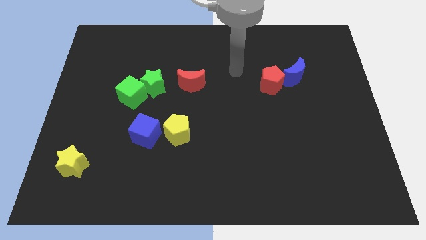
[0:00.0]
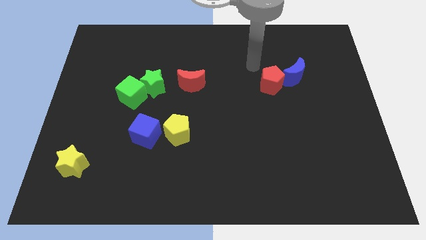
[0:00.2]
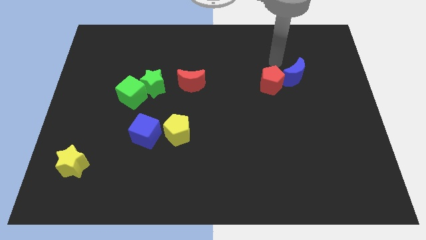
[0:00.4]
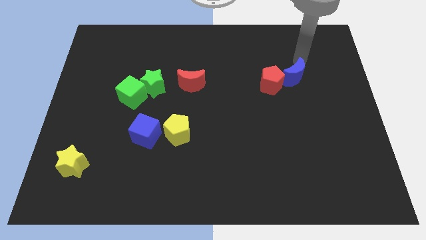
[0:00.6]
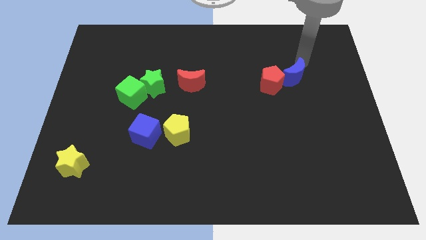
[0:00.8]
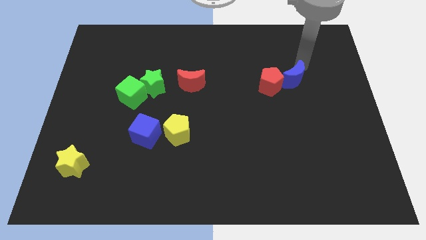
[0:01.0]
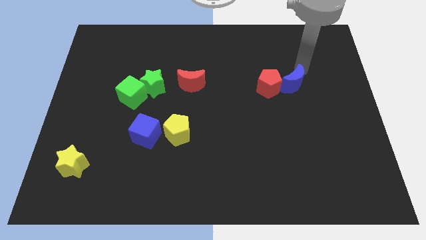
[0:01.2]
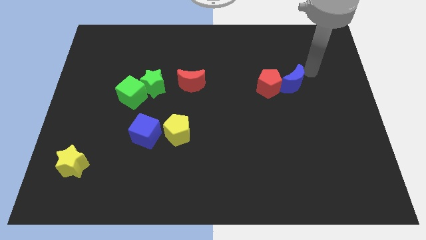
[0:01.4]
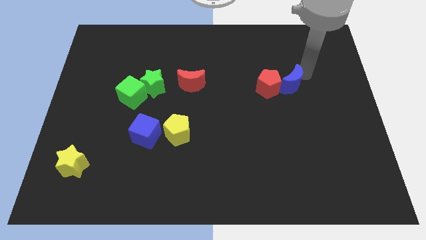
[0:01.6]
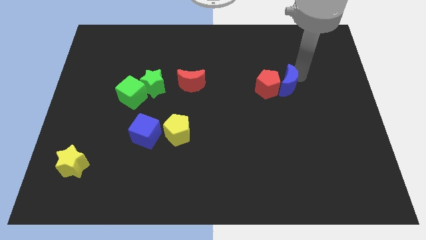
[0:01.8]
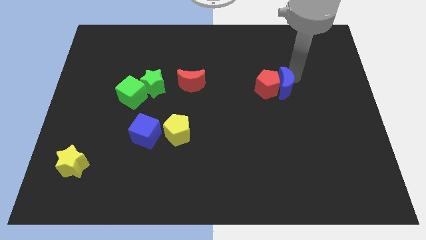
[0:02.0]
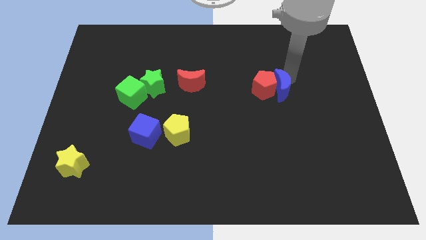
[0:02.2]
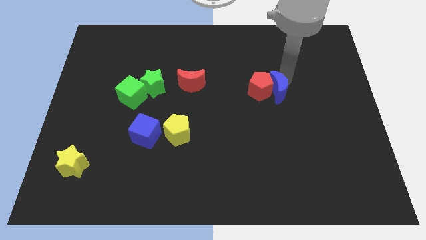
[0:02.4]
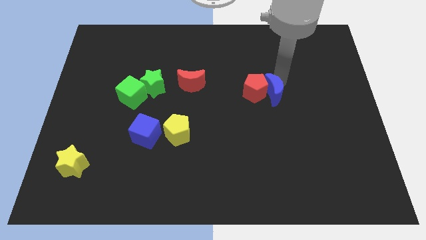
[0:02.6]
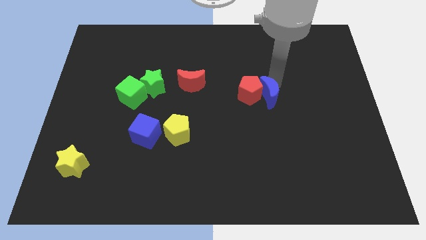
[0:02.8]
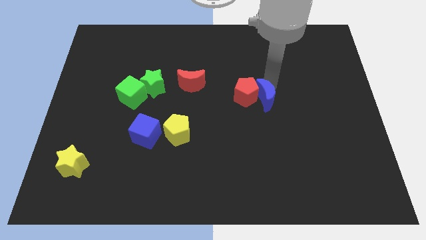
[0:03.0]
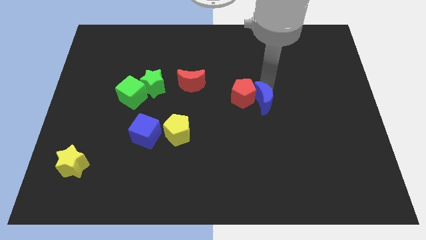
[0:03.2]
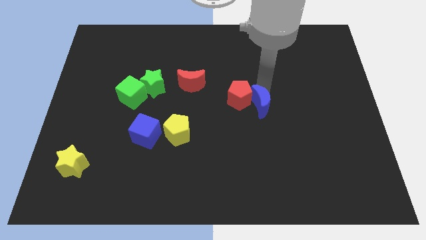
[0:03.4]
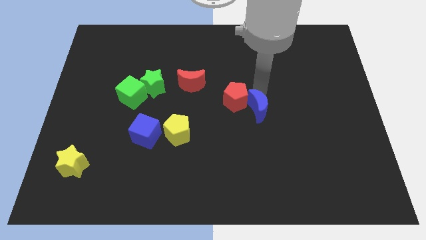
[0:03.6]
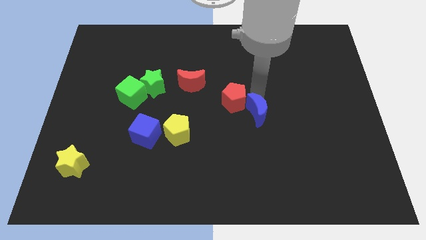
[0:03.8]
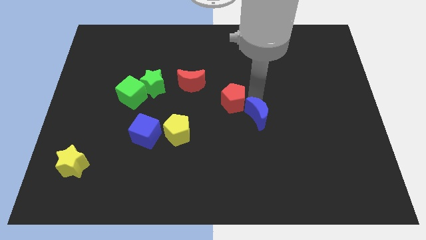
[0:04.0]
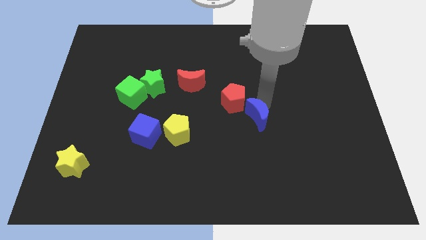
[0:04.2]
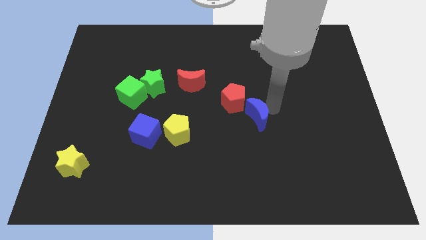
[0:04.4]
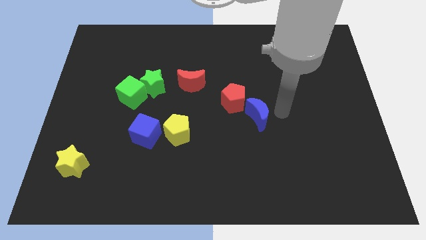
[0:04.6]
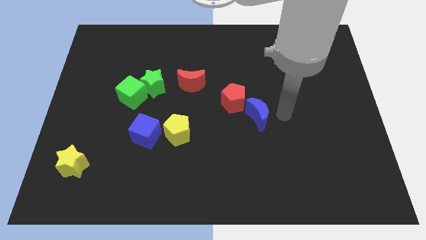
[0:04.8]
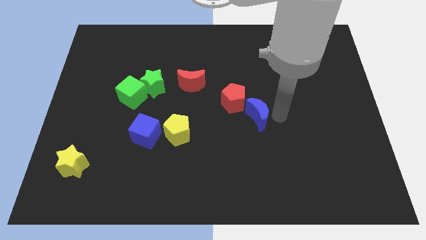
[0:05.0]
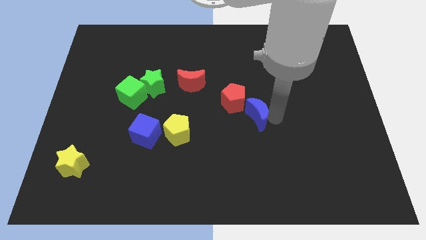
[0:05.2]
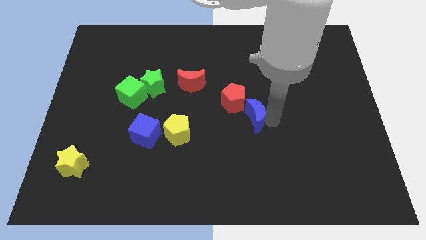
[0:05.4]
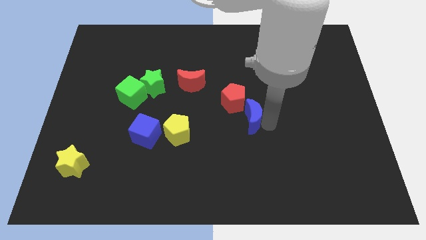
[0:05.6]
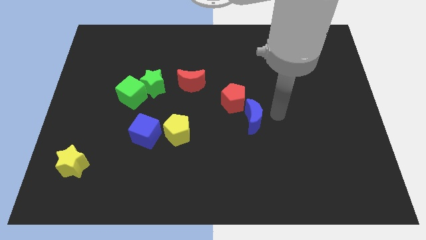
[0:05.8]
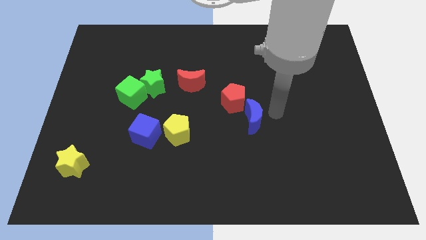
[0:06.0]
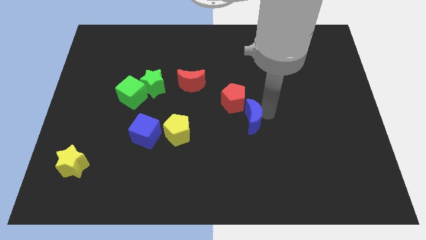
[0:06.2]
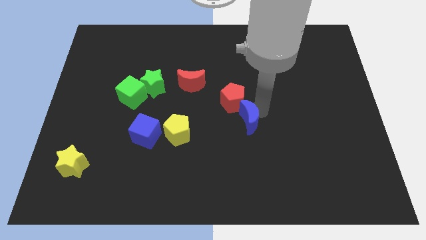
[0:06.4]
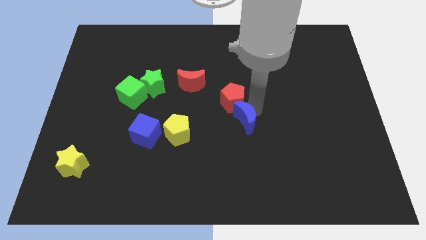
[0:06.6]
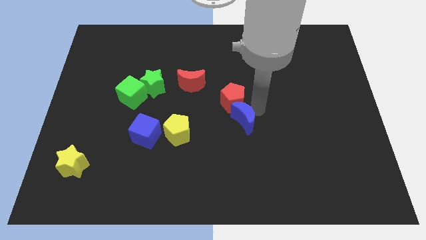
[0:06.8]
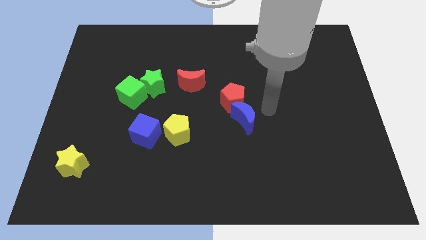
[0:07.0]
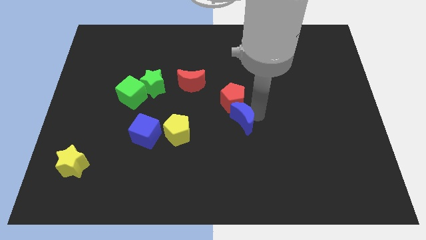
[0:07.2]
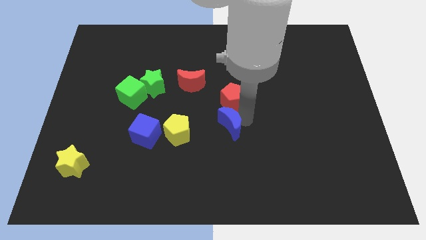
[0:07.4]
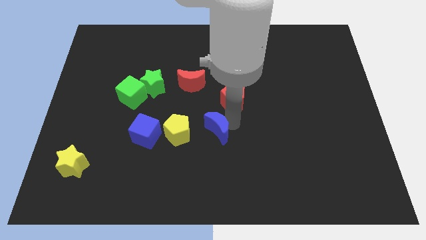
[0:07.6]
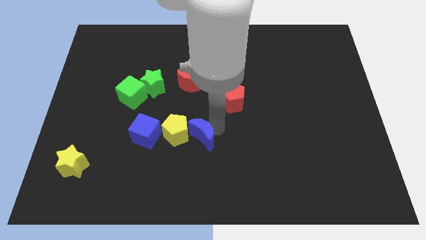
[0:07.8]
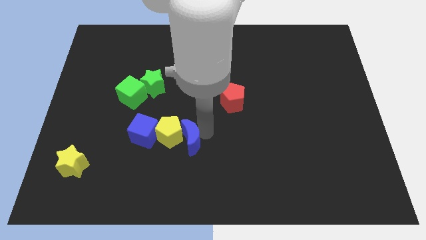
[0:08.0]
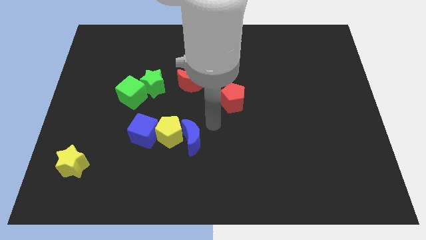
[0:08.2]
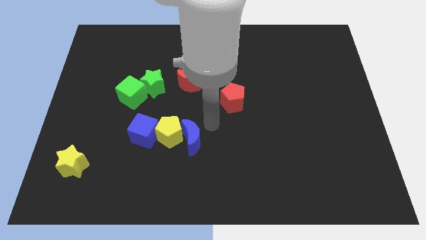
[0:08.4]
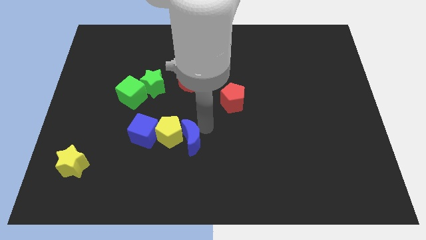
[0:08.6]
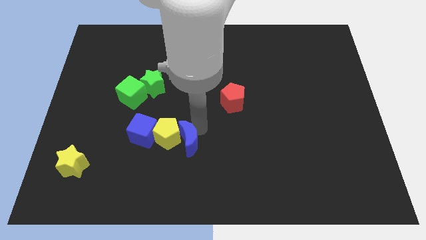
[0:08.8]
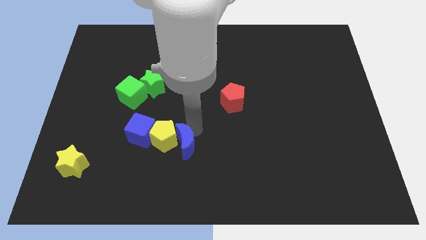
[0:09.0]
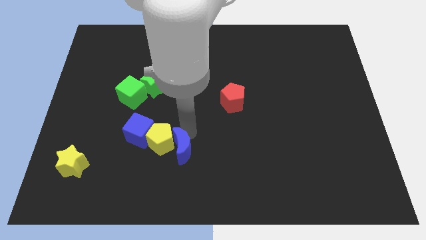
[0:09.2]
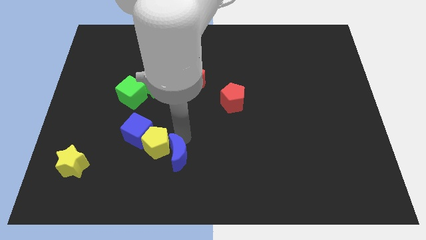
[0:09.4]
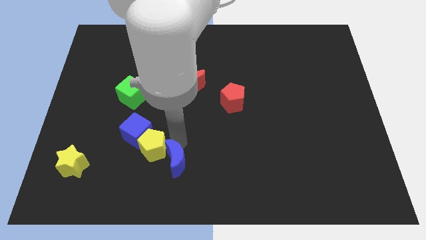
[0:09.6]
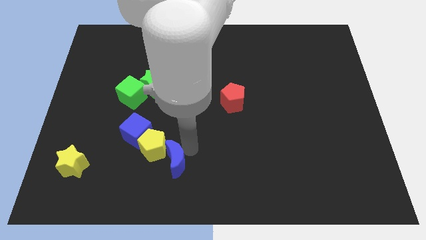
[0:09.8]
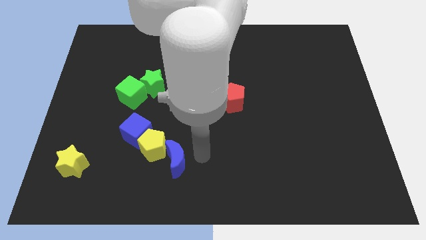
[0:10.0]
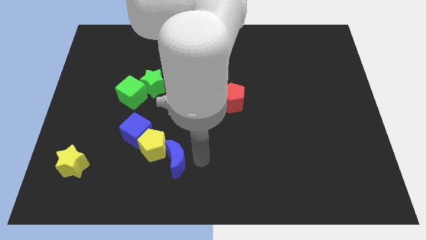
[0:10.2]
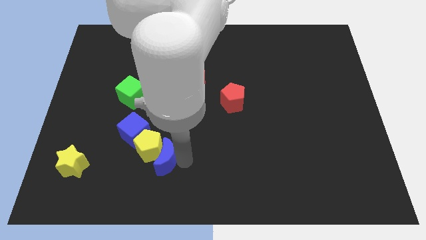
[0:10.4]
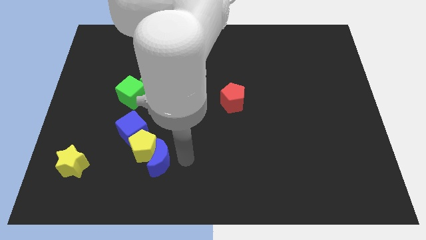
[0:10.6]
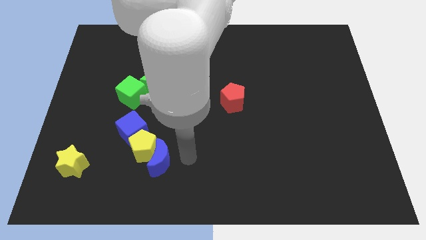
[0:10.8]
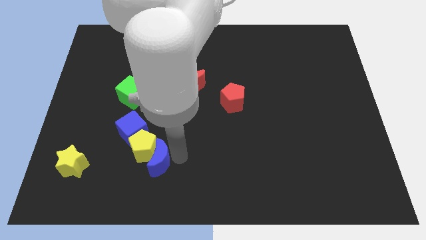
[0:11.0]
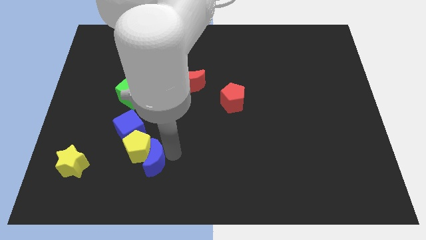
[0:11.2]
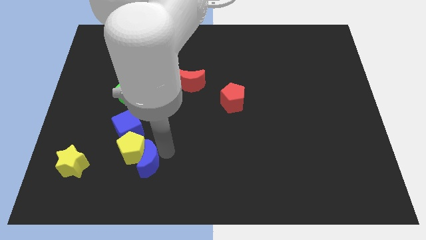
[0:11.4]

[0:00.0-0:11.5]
push the blue moon to the right of the yellow star

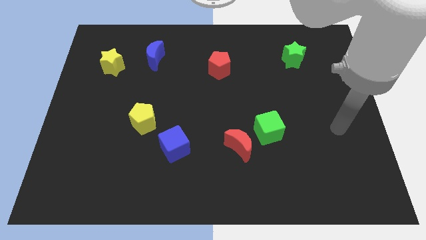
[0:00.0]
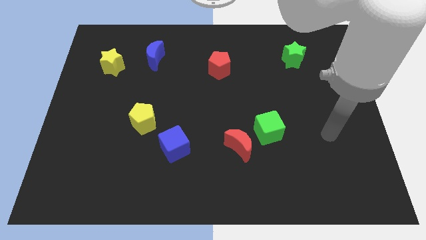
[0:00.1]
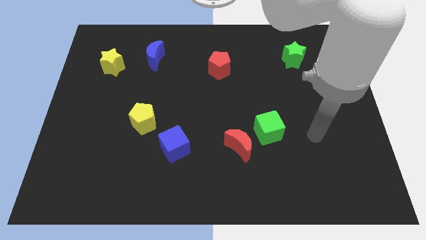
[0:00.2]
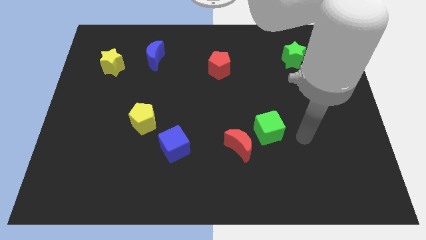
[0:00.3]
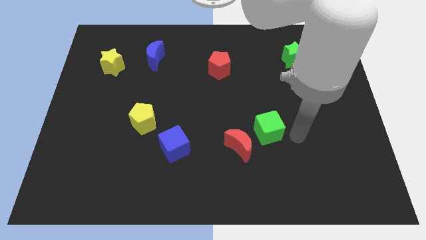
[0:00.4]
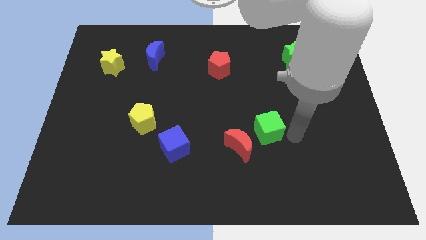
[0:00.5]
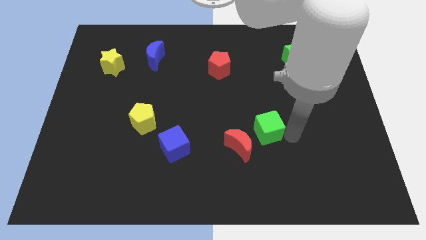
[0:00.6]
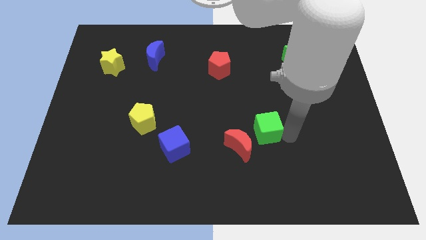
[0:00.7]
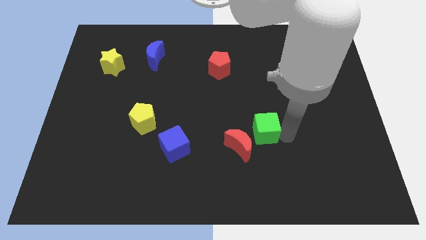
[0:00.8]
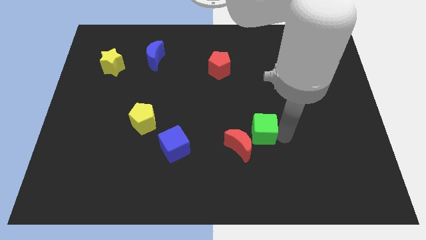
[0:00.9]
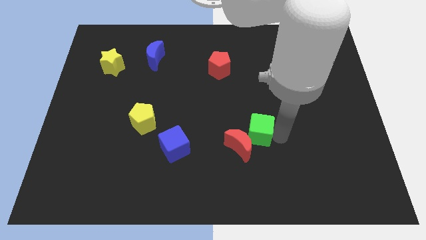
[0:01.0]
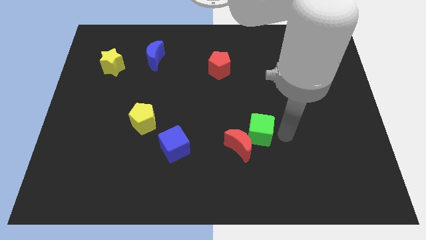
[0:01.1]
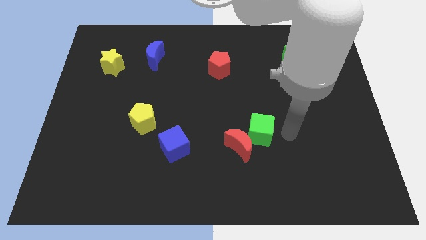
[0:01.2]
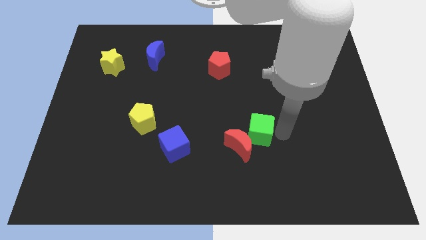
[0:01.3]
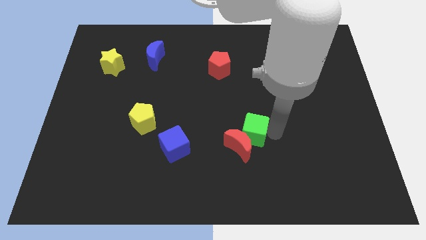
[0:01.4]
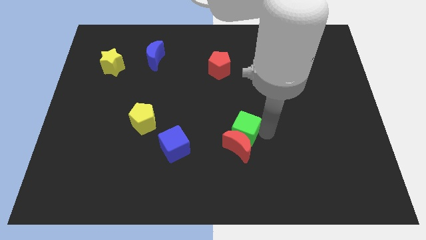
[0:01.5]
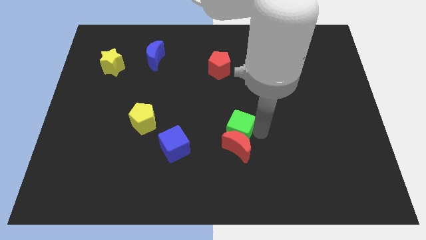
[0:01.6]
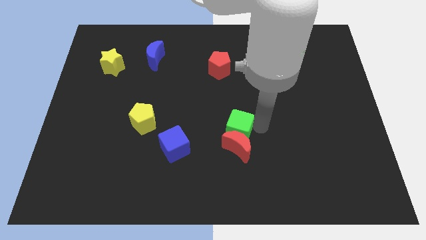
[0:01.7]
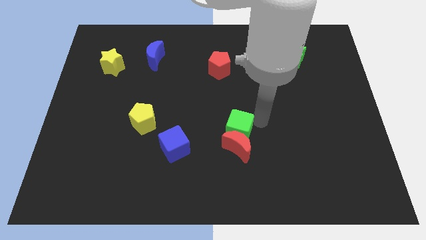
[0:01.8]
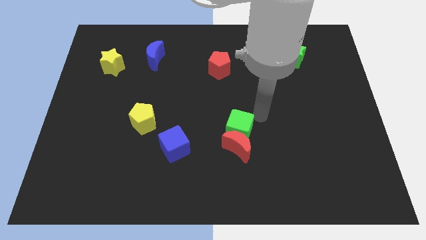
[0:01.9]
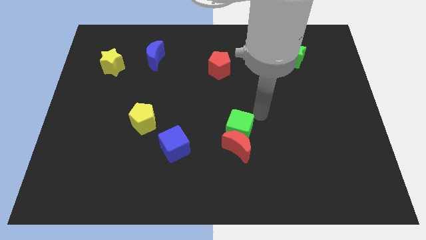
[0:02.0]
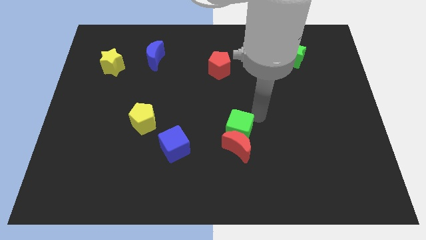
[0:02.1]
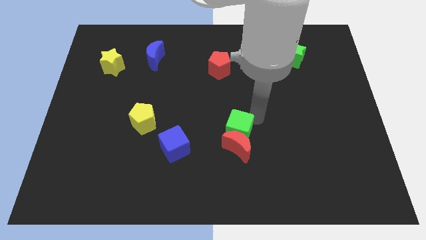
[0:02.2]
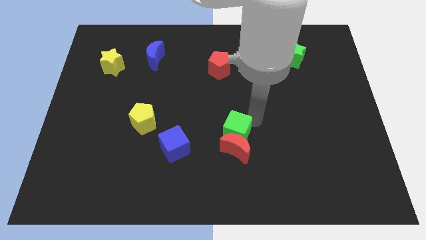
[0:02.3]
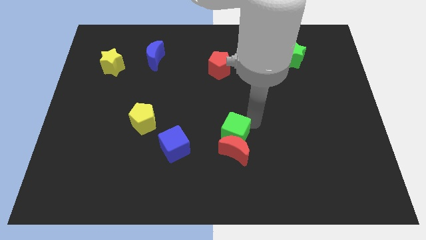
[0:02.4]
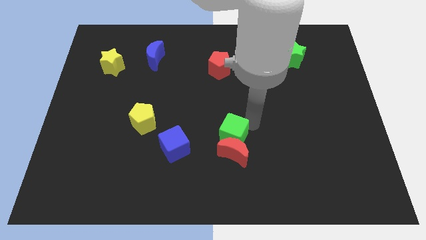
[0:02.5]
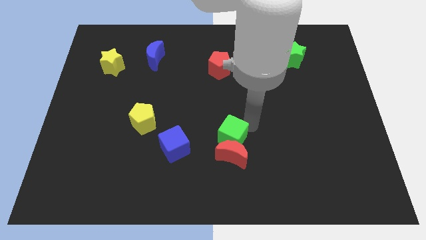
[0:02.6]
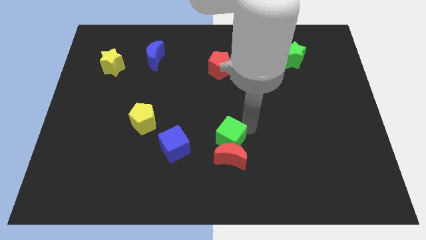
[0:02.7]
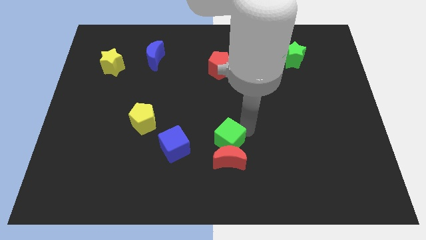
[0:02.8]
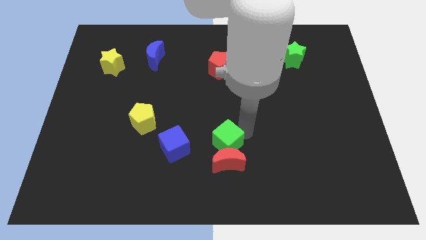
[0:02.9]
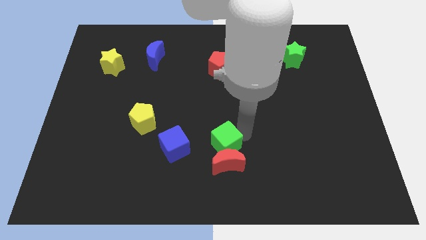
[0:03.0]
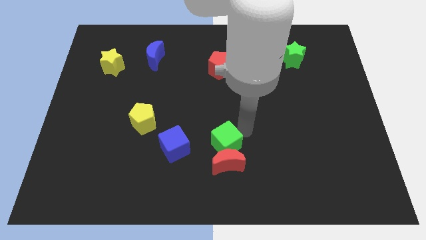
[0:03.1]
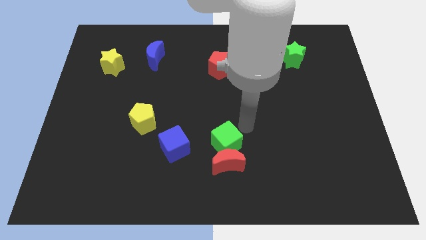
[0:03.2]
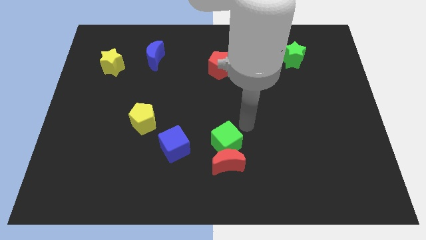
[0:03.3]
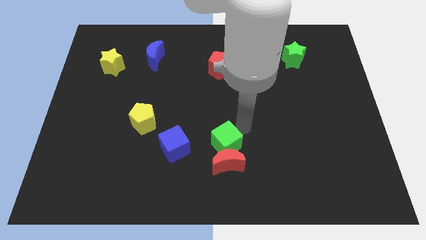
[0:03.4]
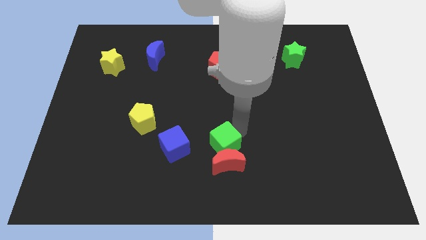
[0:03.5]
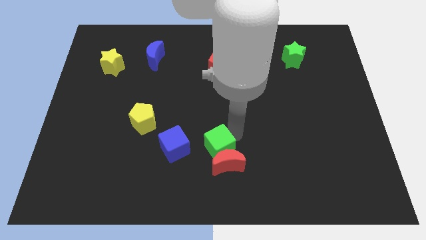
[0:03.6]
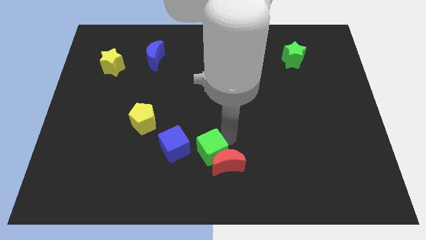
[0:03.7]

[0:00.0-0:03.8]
move the green cube to the bottom right side of the blue cube
